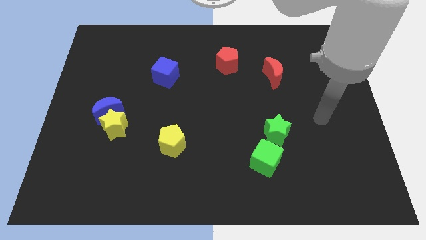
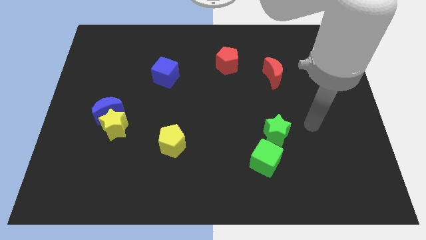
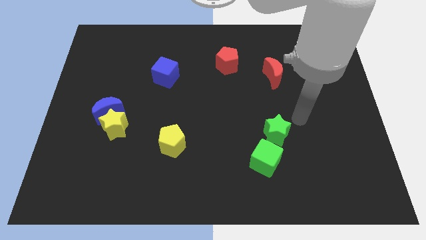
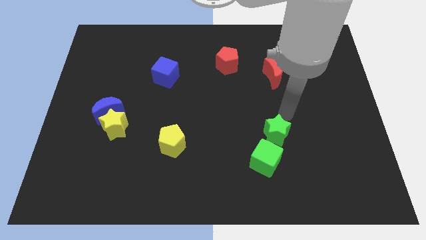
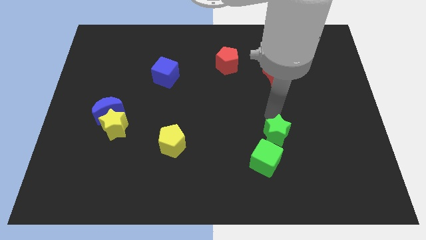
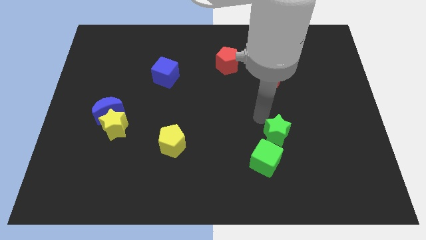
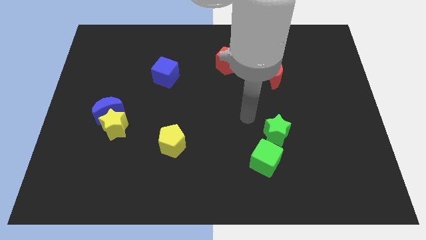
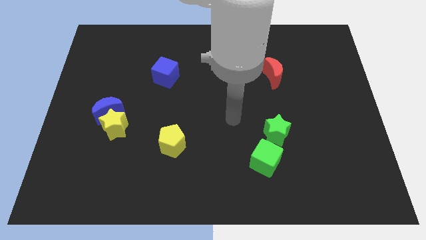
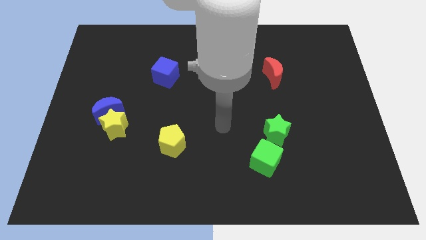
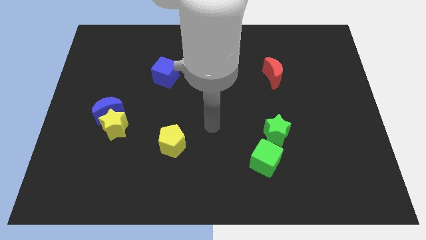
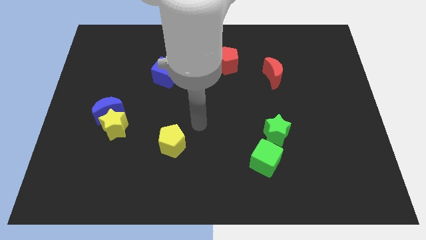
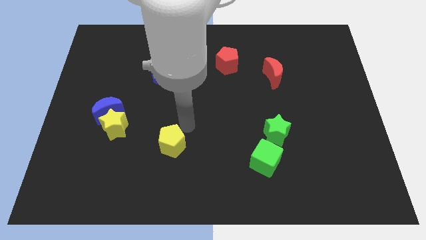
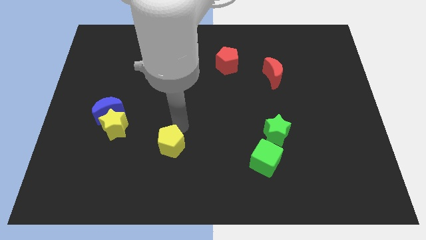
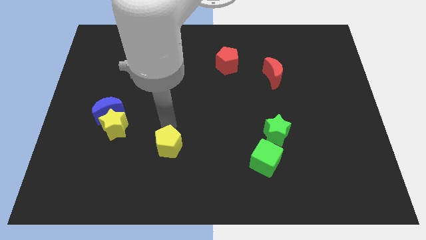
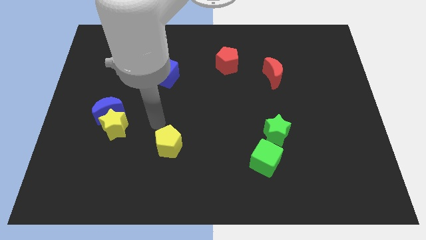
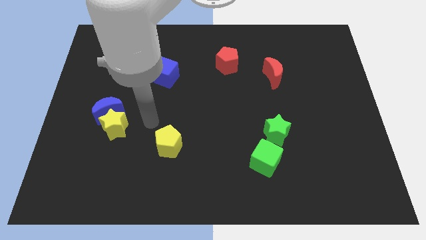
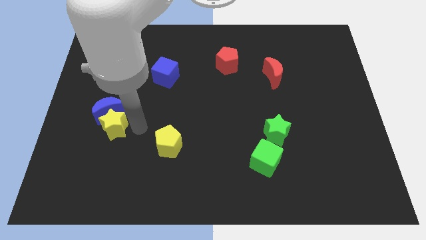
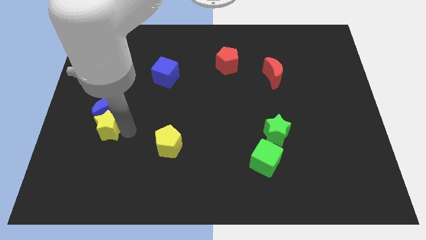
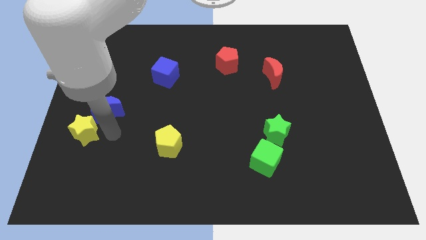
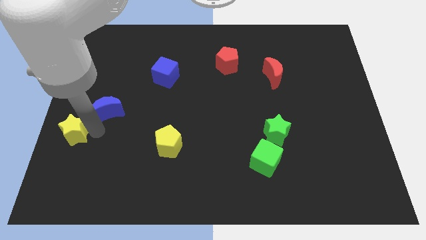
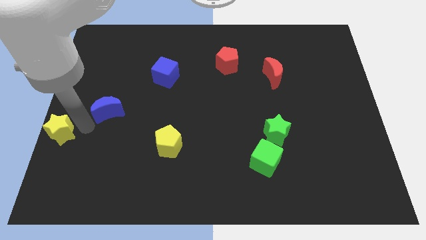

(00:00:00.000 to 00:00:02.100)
separate the blue moon from the yellow star

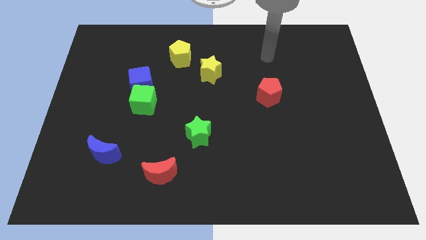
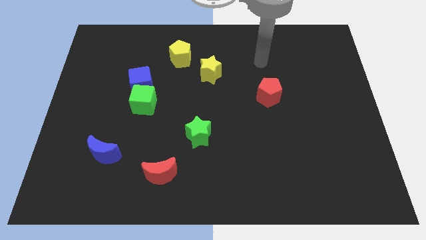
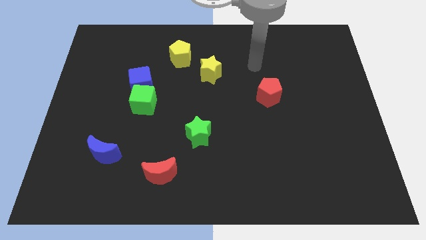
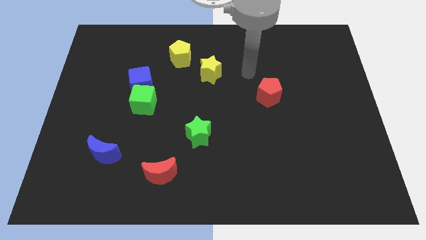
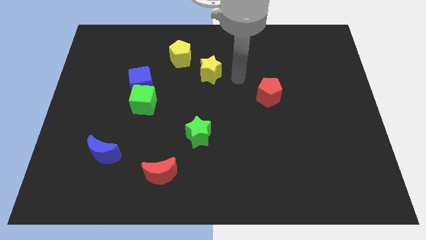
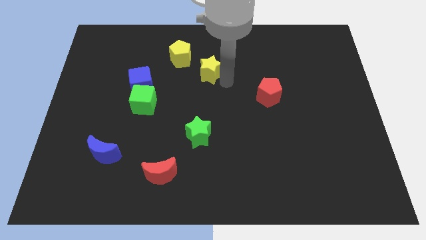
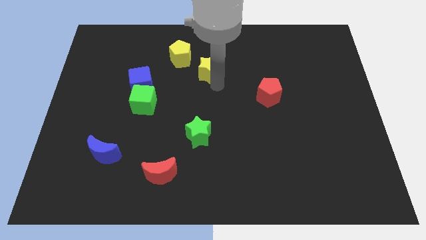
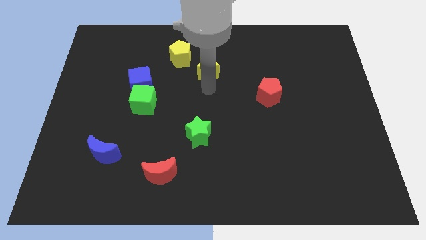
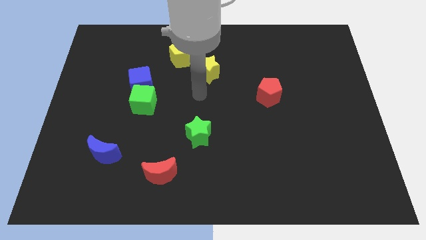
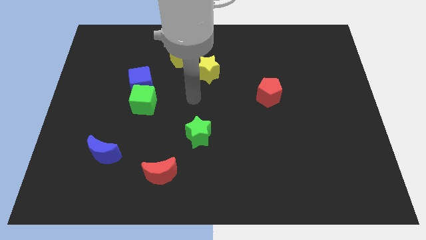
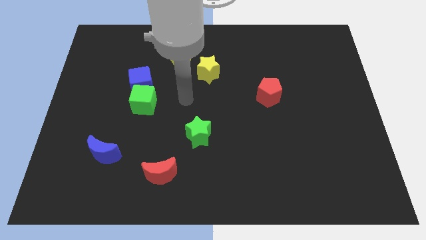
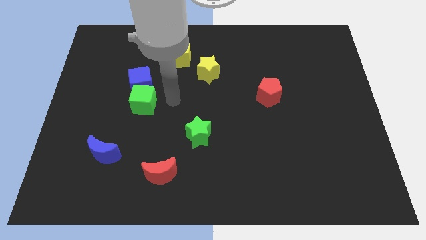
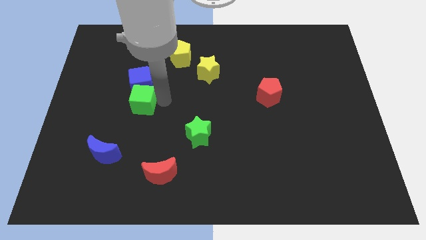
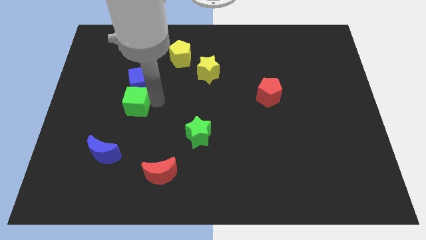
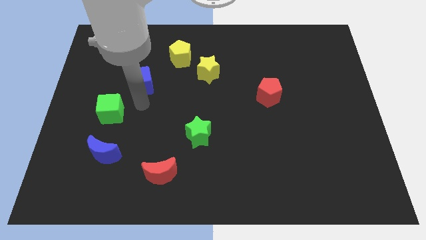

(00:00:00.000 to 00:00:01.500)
pull the blue cube apart from the green cube

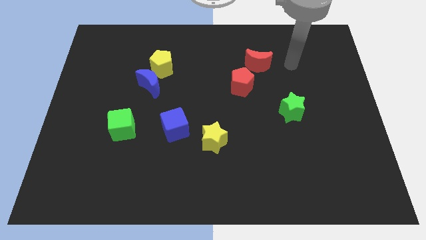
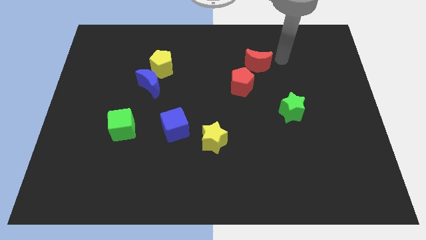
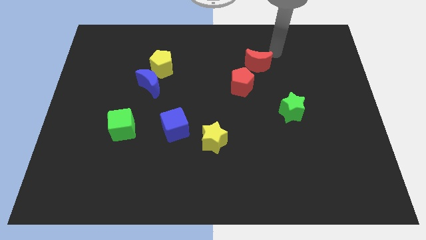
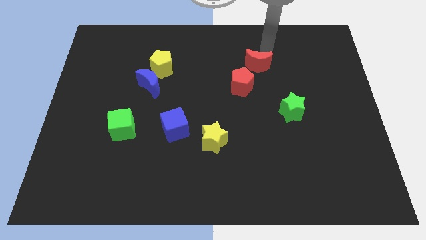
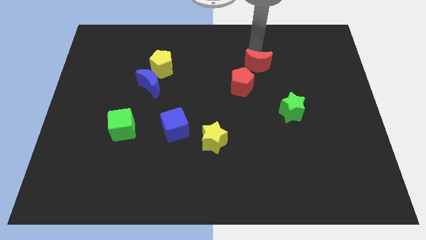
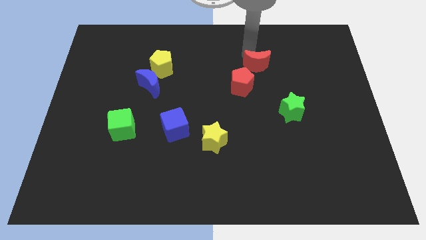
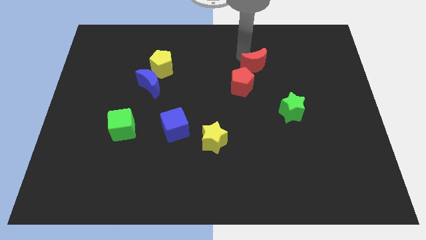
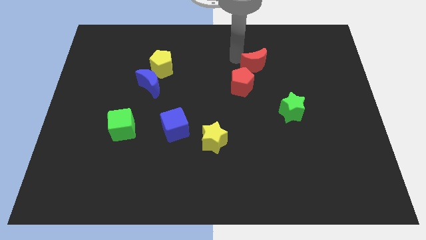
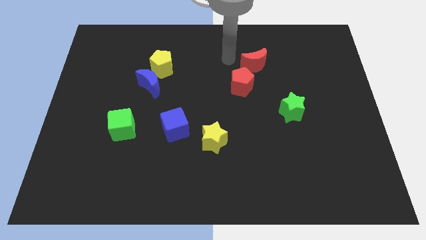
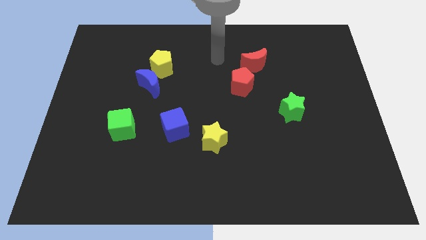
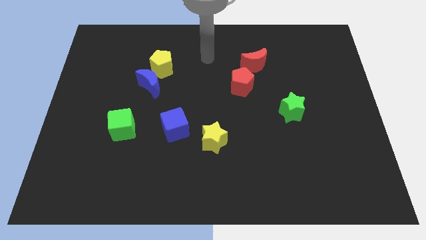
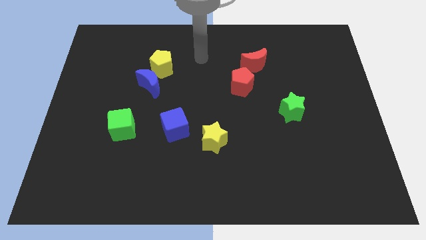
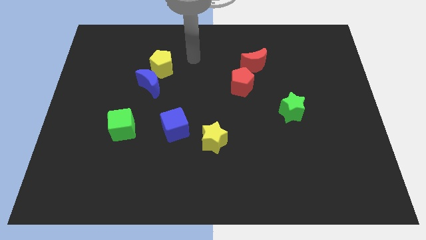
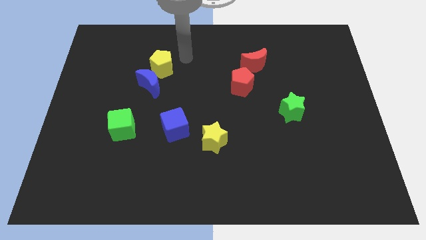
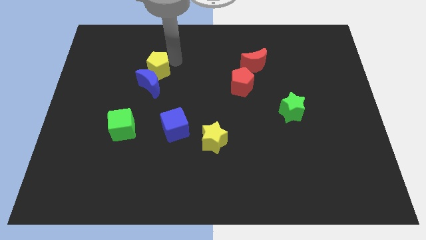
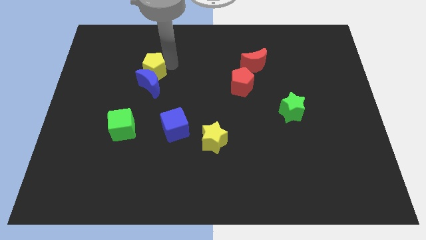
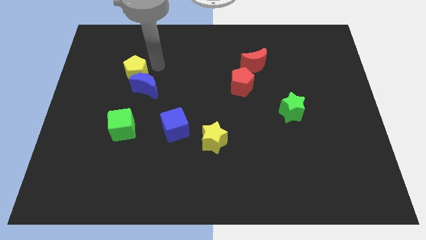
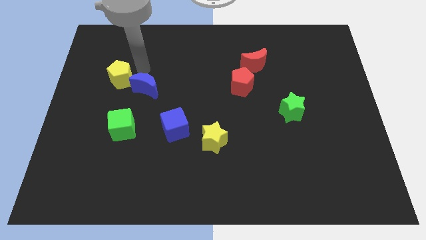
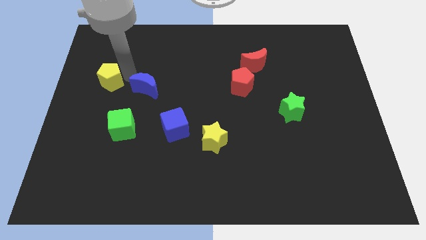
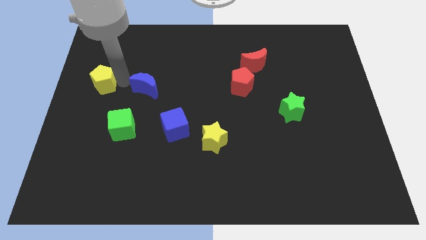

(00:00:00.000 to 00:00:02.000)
move the blue moon away from the yellow pentagon

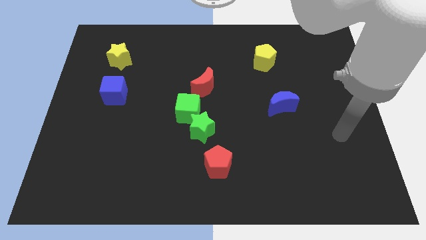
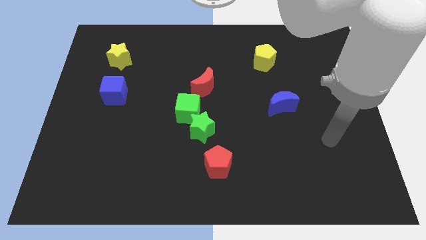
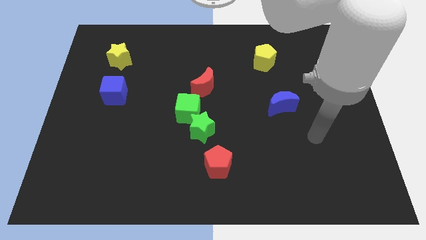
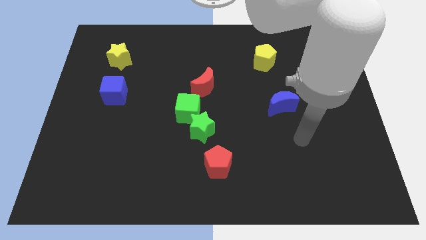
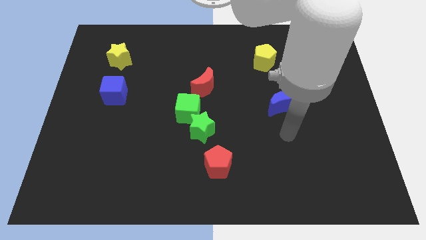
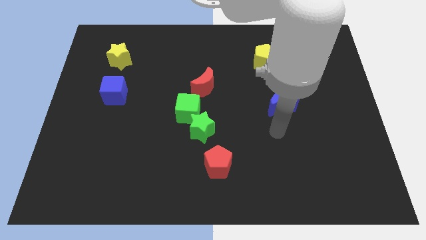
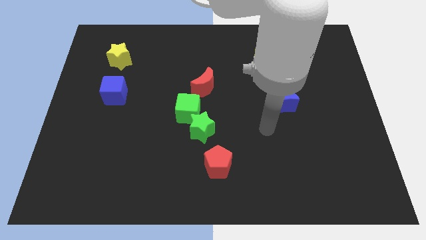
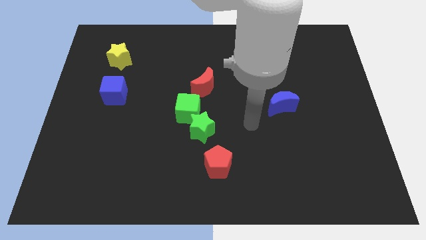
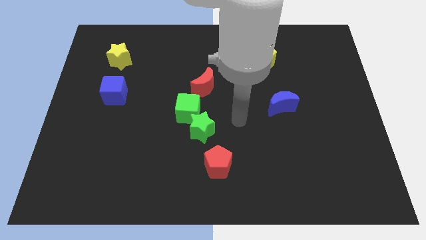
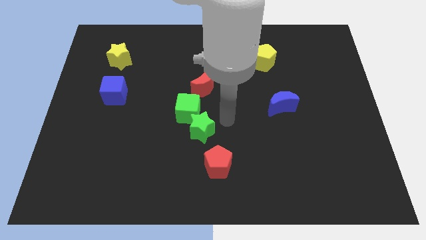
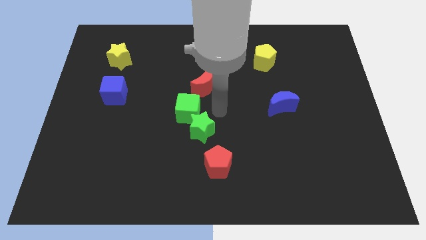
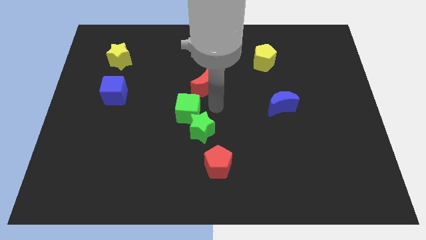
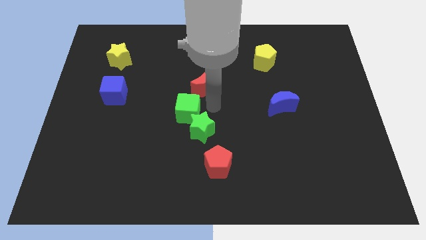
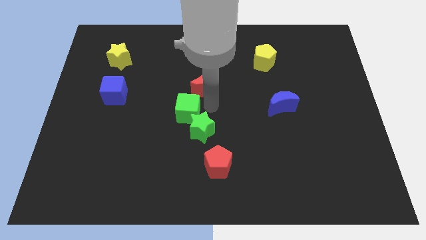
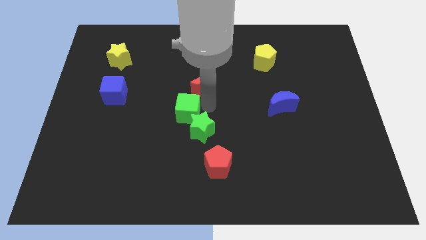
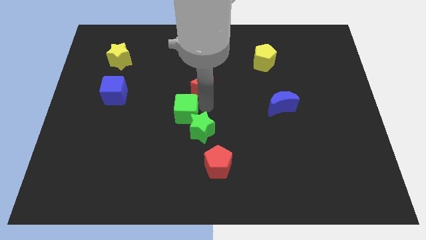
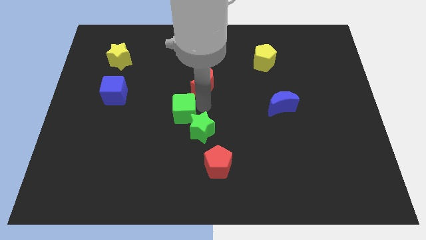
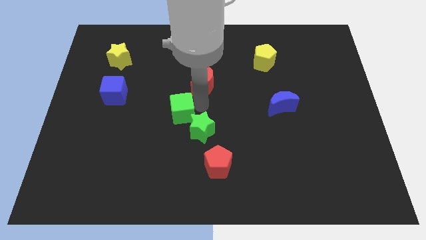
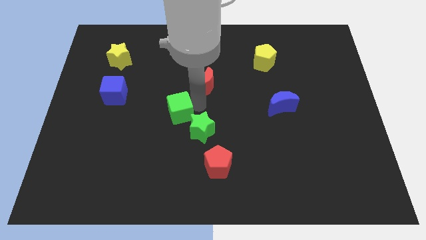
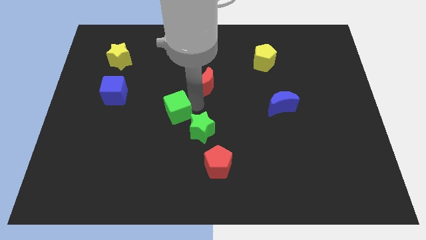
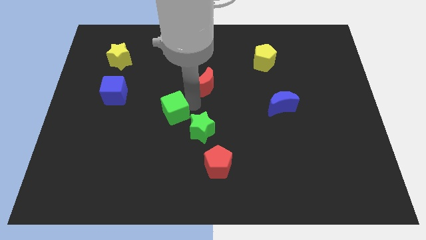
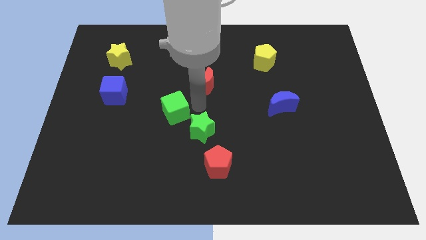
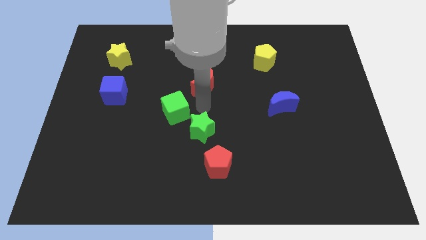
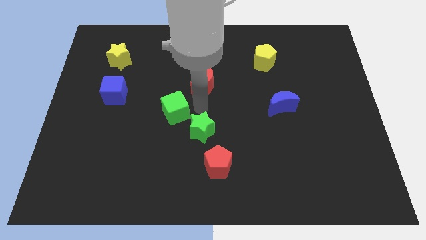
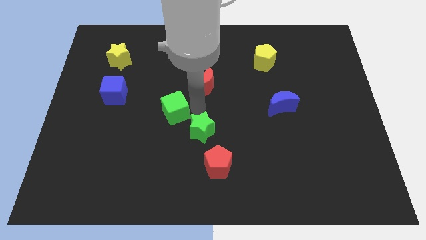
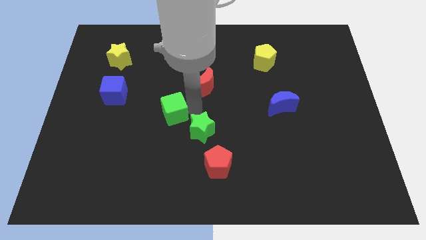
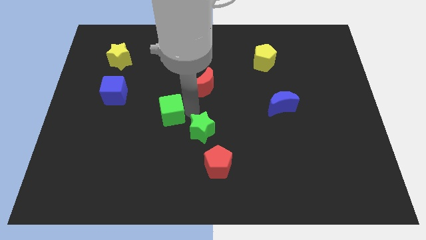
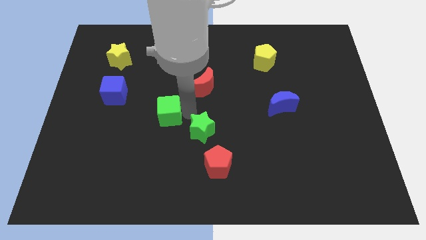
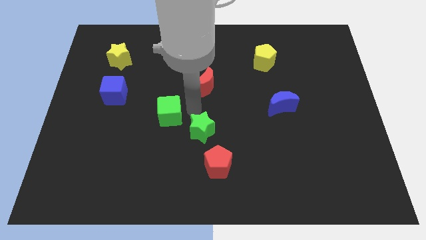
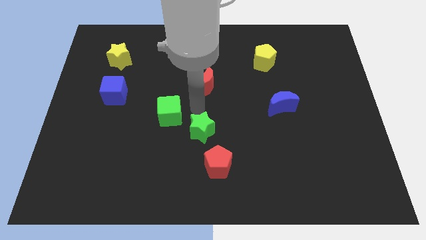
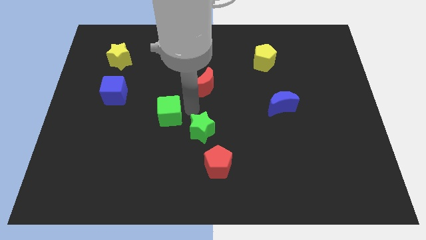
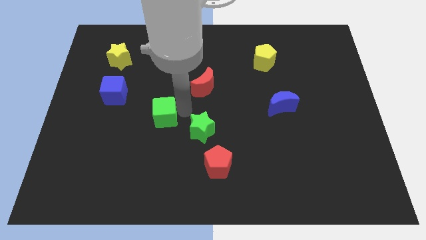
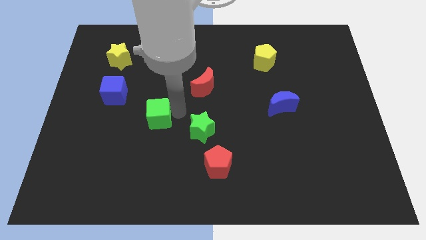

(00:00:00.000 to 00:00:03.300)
pull the green cube apart from the green star and red moon

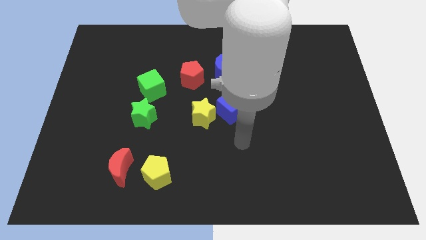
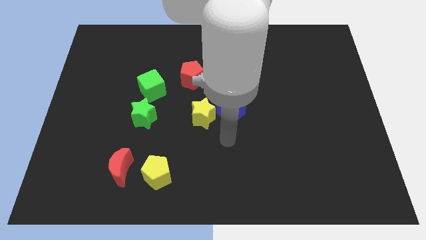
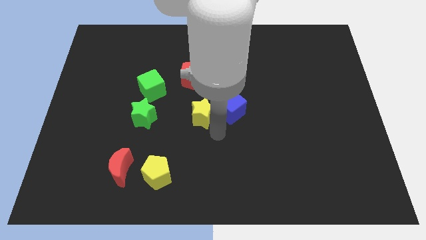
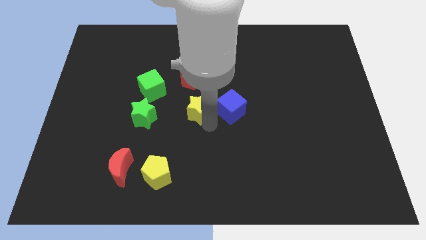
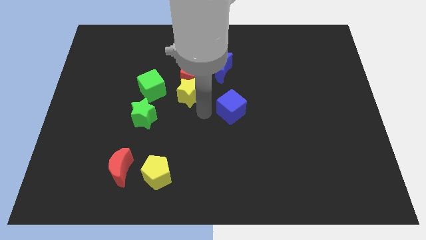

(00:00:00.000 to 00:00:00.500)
pull the blue cube apart from the yellow star
